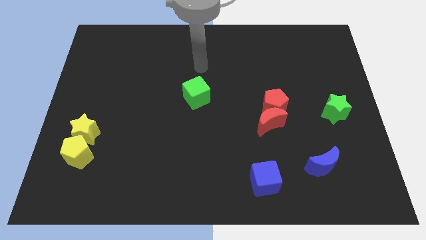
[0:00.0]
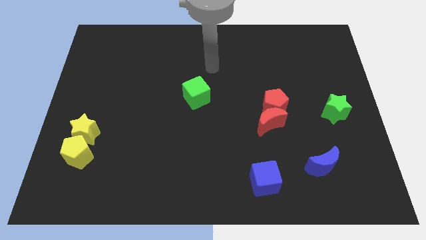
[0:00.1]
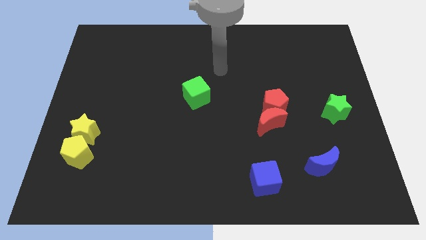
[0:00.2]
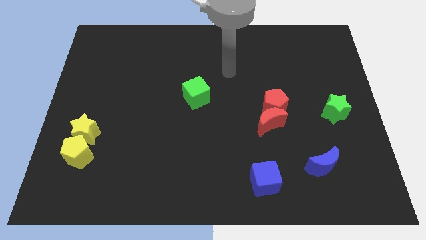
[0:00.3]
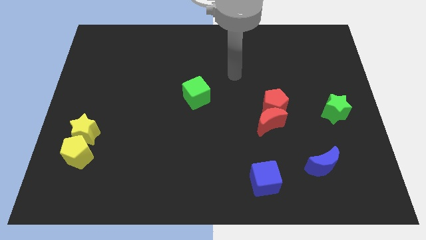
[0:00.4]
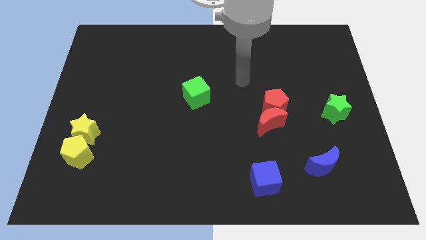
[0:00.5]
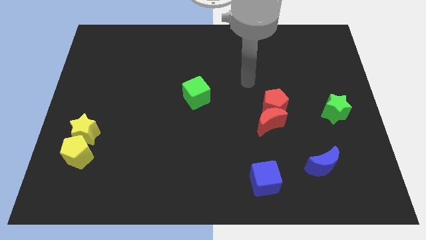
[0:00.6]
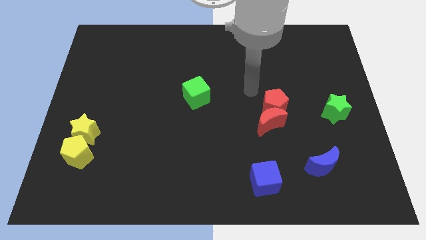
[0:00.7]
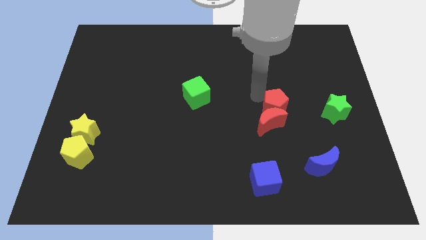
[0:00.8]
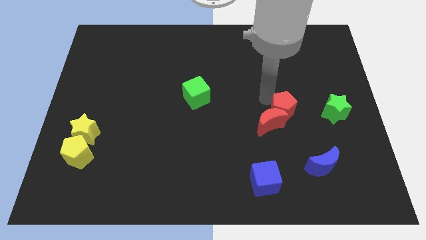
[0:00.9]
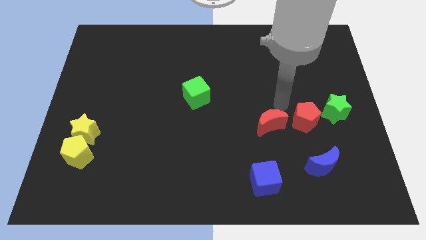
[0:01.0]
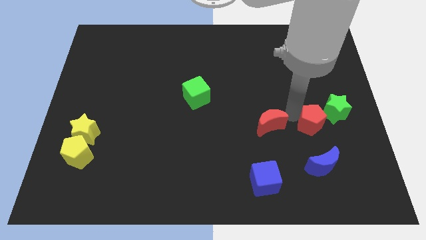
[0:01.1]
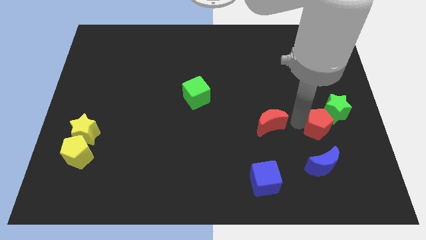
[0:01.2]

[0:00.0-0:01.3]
move the red moon away from the red pentagon

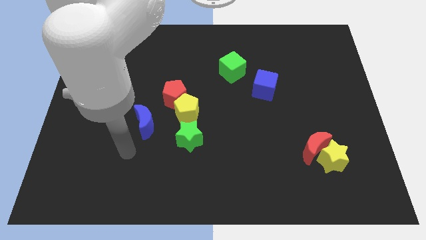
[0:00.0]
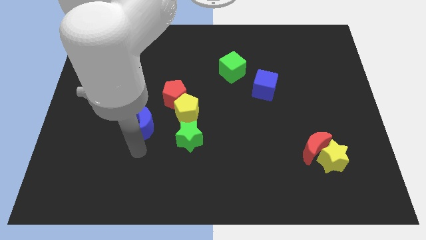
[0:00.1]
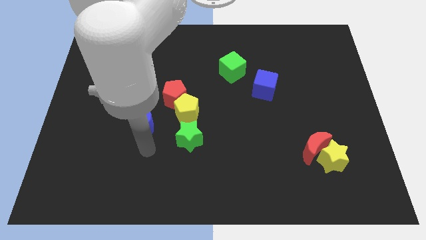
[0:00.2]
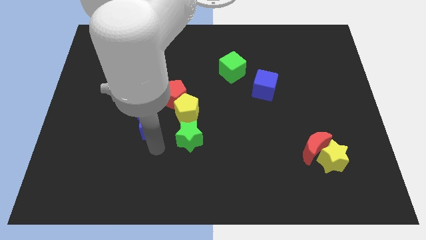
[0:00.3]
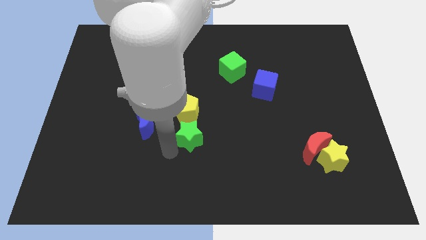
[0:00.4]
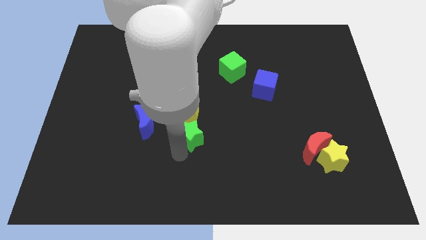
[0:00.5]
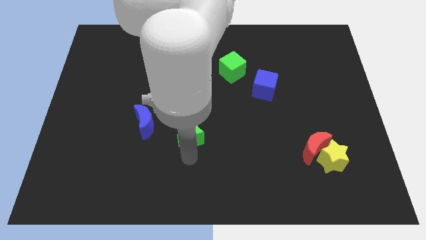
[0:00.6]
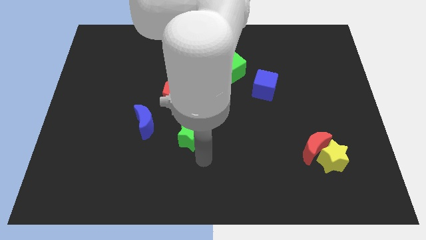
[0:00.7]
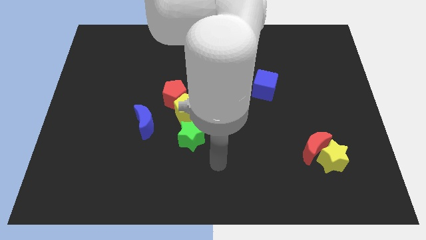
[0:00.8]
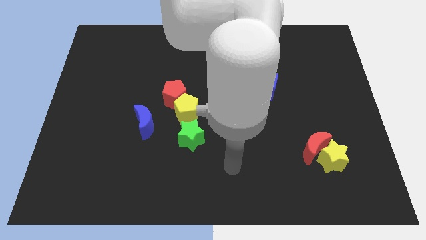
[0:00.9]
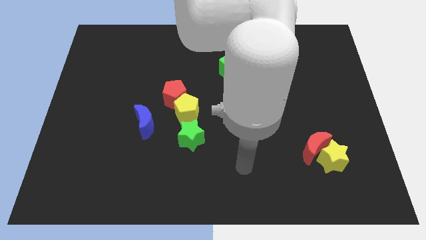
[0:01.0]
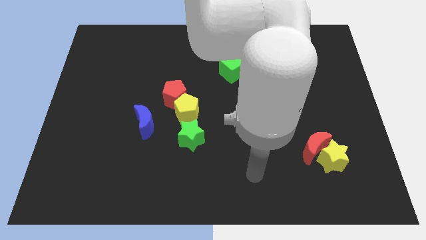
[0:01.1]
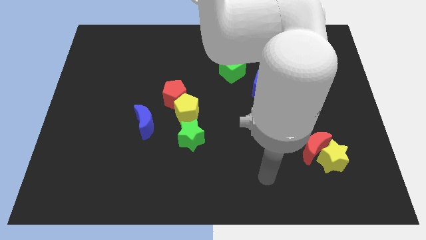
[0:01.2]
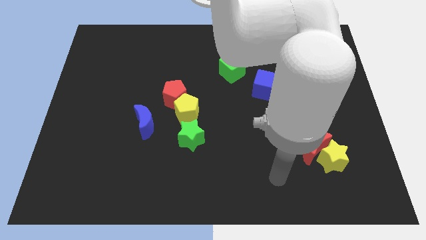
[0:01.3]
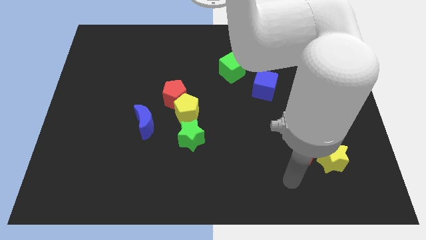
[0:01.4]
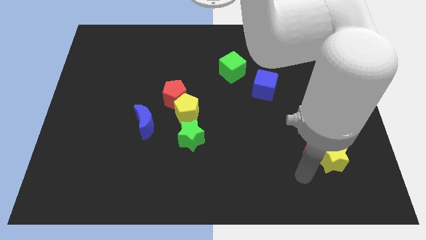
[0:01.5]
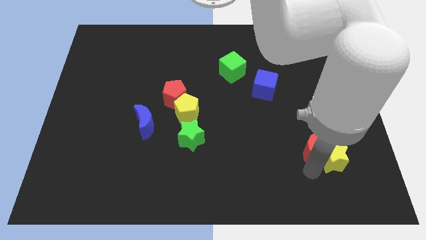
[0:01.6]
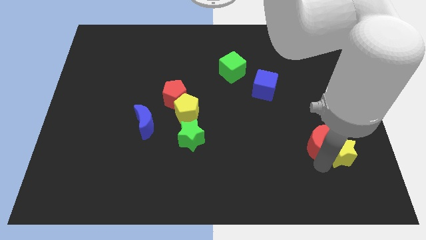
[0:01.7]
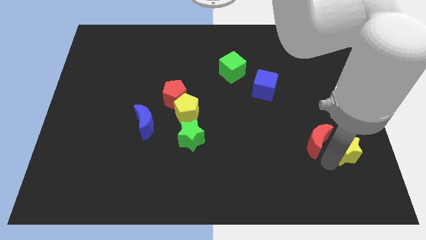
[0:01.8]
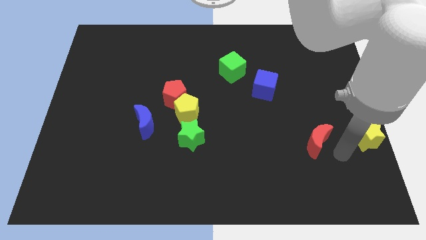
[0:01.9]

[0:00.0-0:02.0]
pull the red moon apart from the yellow star

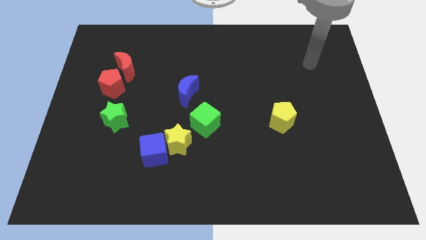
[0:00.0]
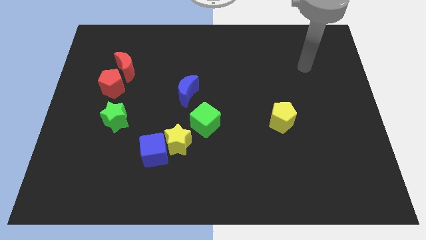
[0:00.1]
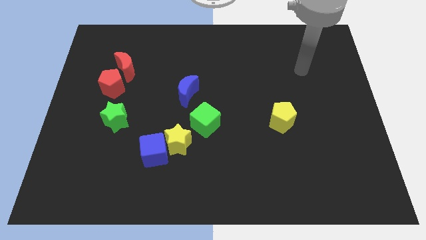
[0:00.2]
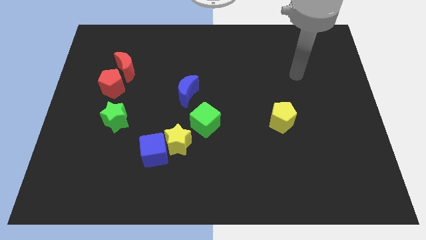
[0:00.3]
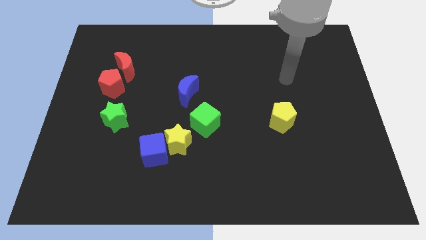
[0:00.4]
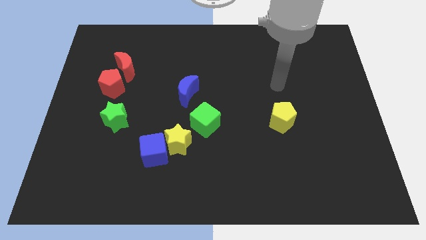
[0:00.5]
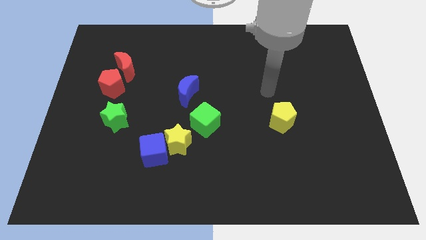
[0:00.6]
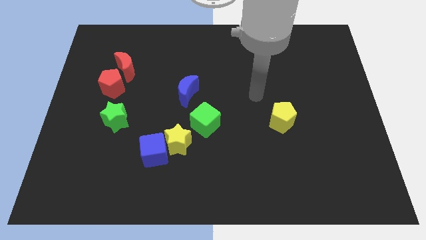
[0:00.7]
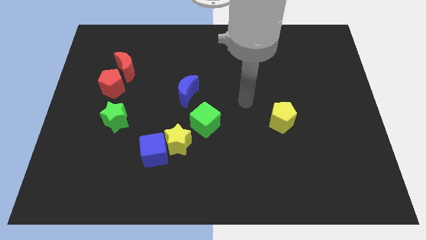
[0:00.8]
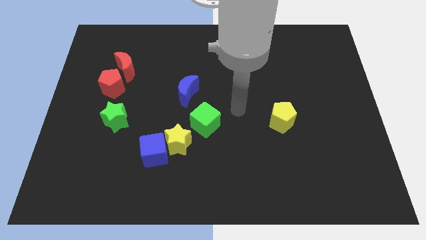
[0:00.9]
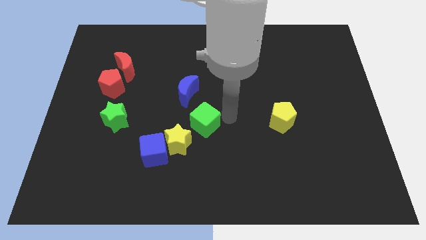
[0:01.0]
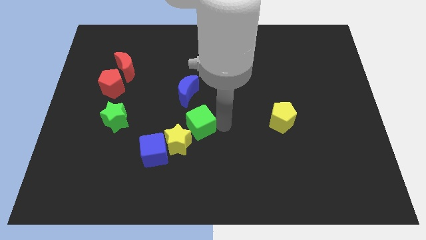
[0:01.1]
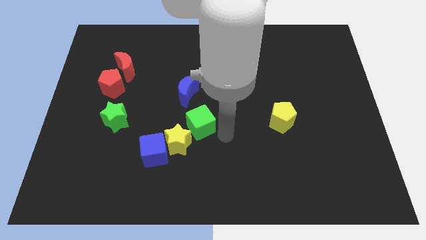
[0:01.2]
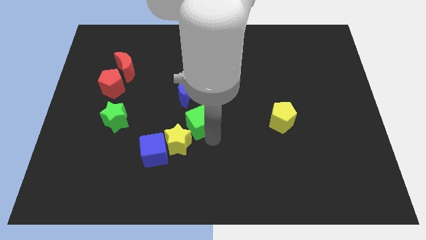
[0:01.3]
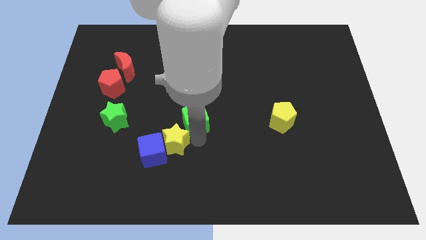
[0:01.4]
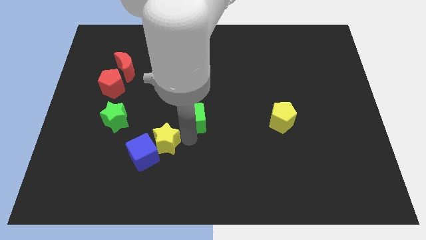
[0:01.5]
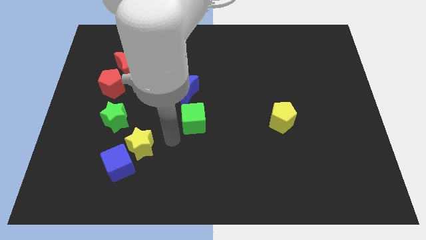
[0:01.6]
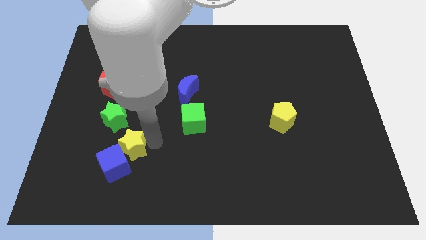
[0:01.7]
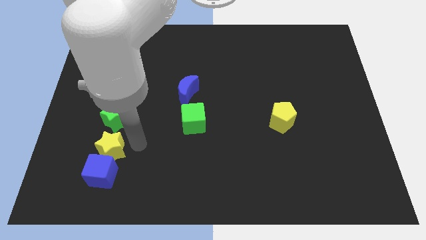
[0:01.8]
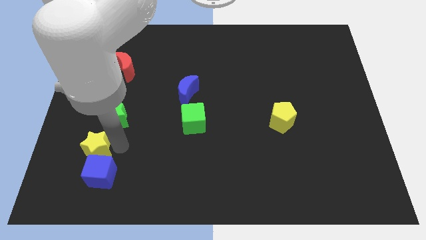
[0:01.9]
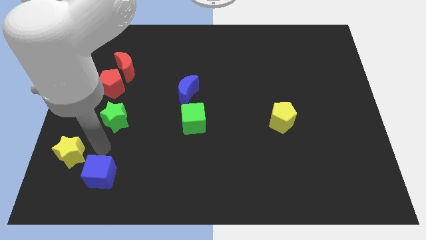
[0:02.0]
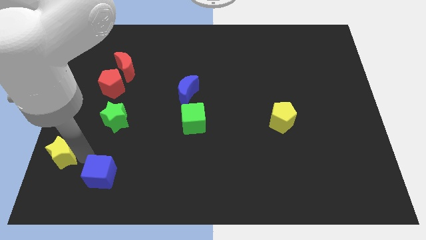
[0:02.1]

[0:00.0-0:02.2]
pull the blue cube apart from the yellow star

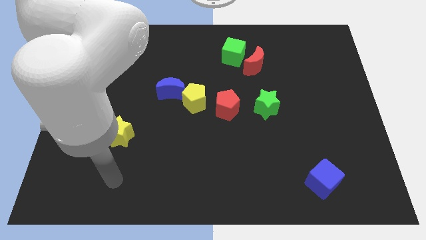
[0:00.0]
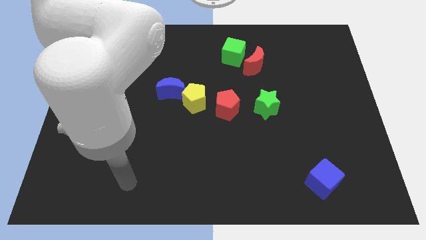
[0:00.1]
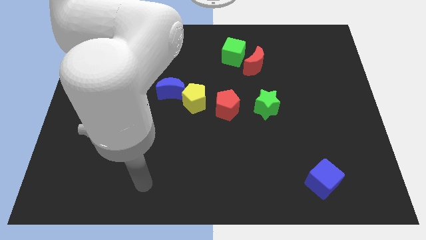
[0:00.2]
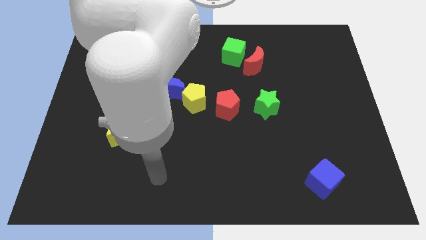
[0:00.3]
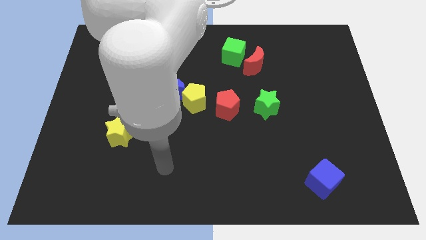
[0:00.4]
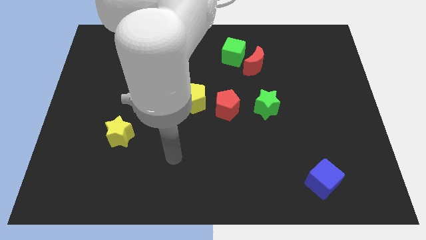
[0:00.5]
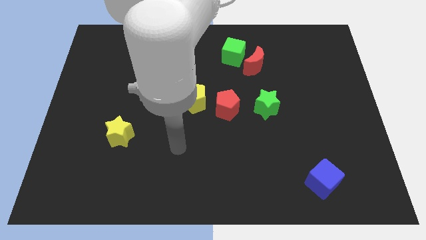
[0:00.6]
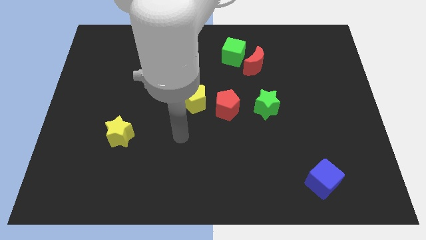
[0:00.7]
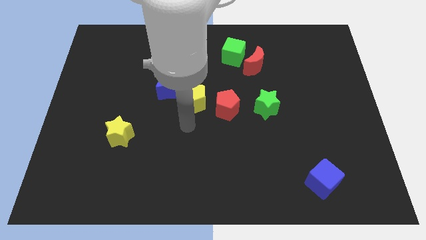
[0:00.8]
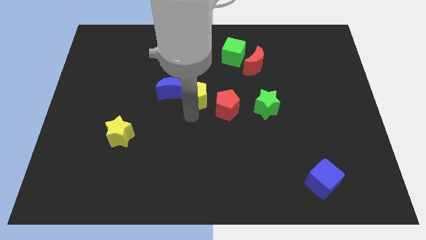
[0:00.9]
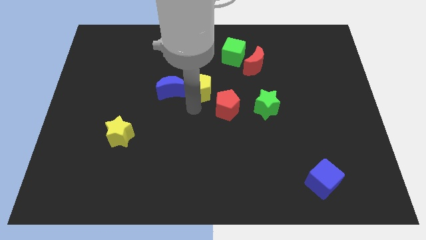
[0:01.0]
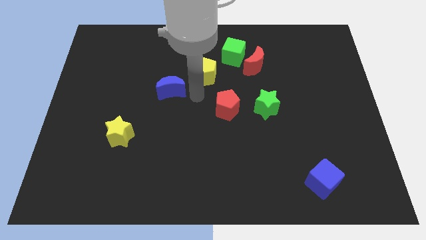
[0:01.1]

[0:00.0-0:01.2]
move the blue moon away from the yellow pentagon

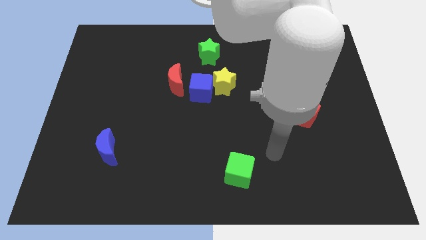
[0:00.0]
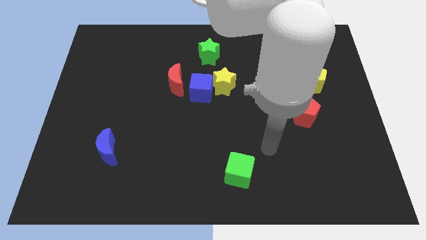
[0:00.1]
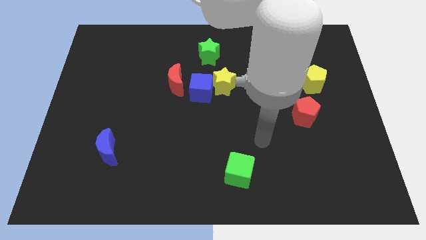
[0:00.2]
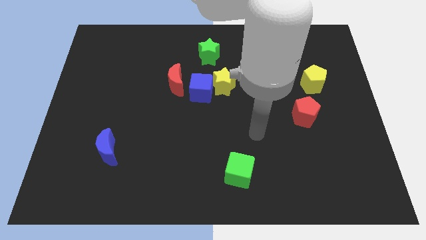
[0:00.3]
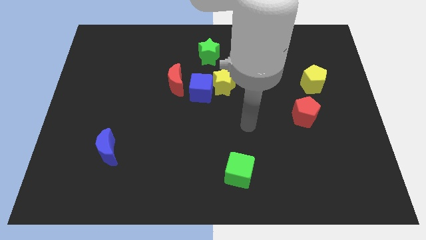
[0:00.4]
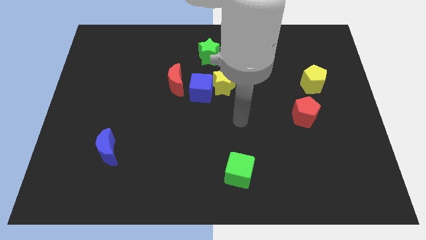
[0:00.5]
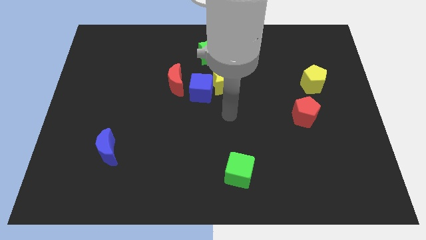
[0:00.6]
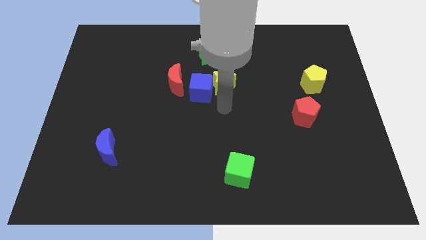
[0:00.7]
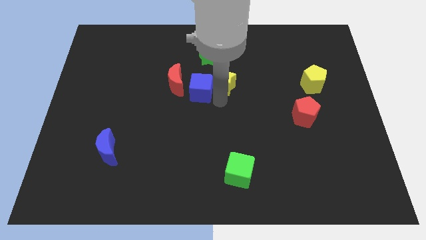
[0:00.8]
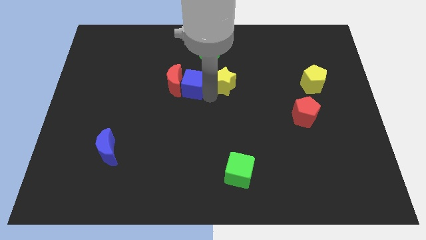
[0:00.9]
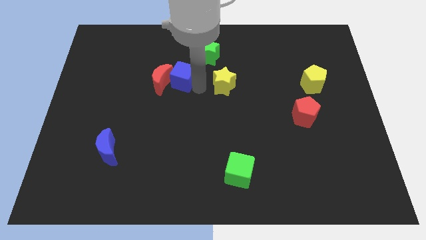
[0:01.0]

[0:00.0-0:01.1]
pull the yellow star apart from the blue cube

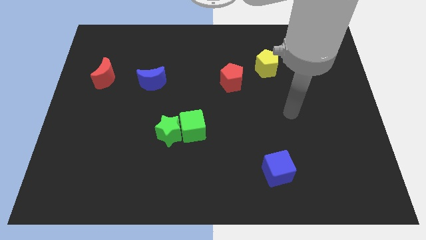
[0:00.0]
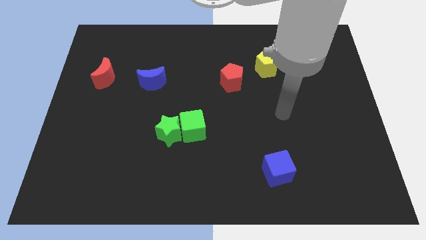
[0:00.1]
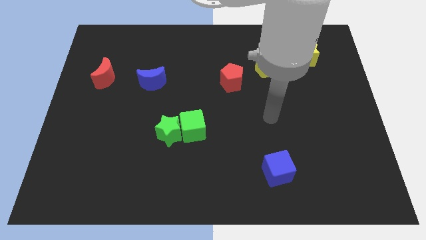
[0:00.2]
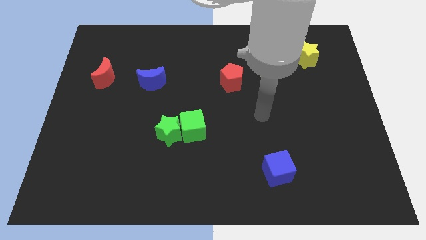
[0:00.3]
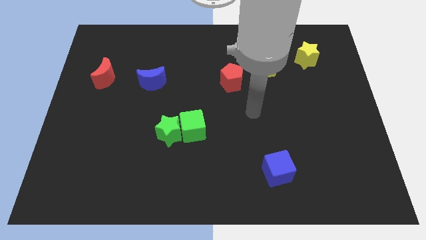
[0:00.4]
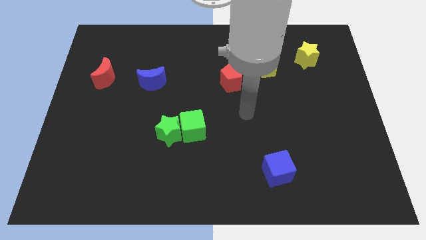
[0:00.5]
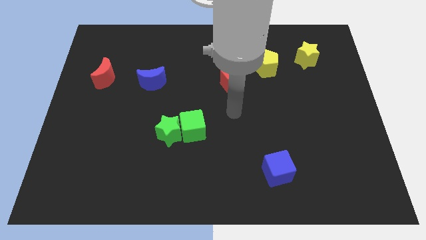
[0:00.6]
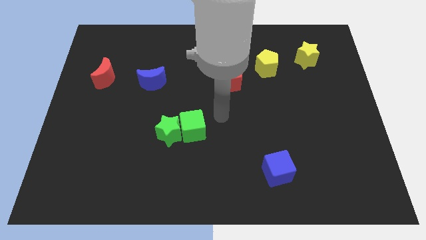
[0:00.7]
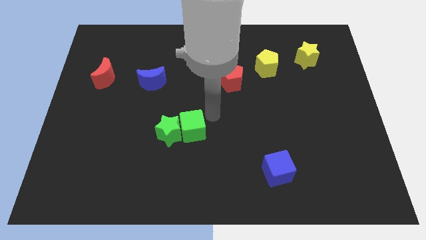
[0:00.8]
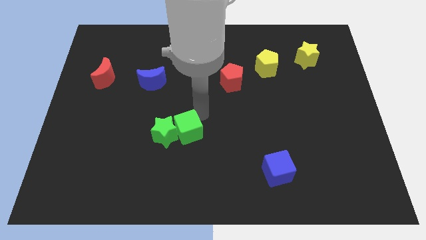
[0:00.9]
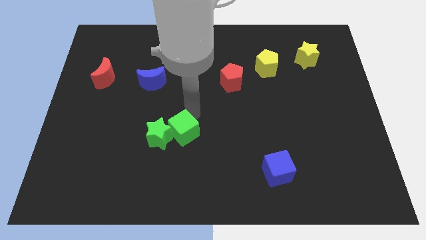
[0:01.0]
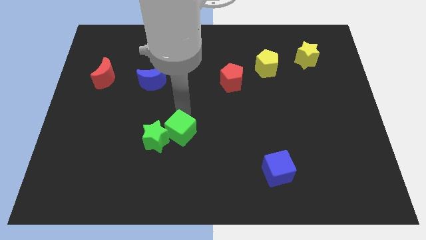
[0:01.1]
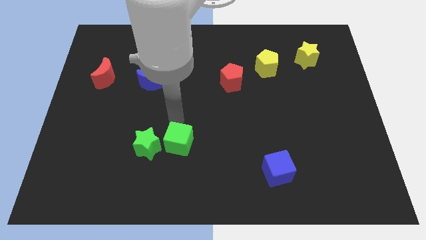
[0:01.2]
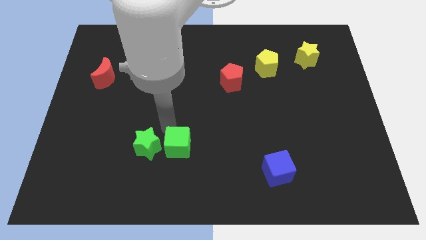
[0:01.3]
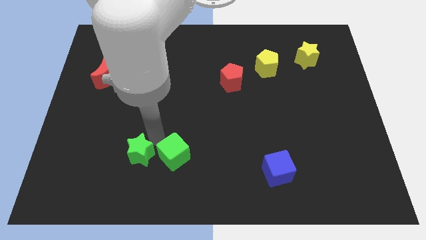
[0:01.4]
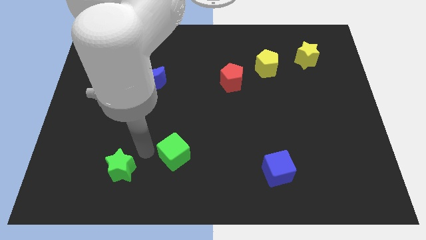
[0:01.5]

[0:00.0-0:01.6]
move the green cube away from the green star
